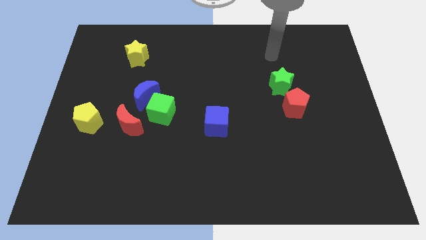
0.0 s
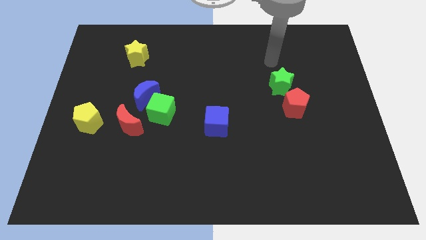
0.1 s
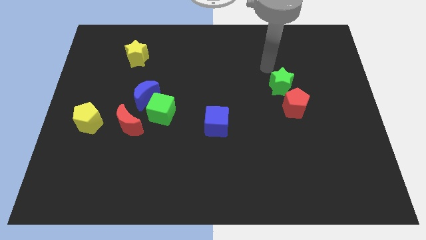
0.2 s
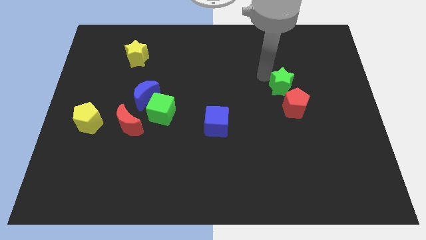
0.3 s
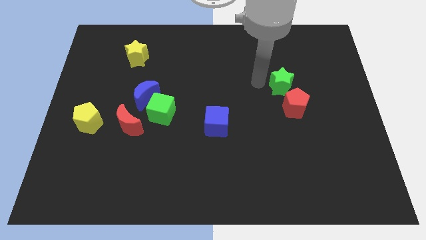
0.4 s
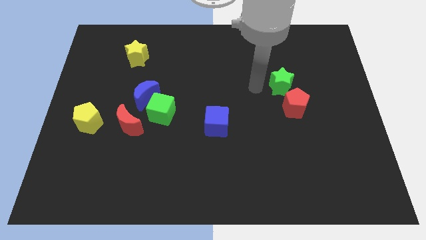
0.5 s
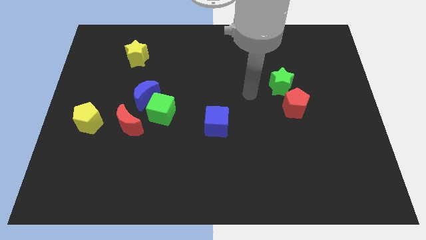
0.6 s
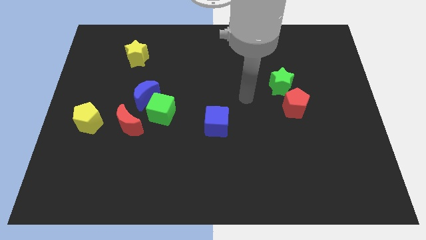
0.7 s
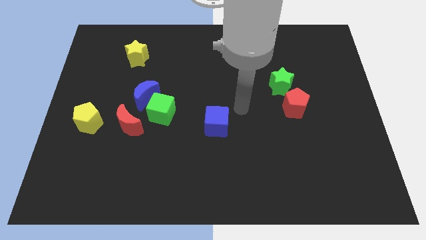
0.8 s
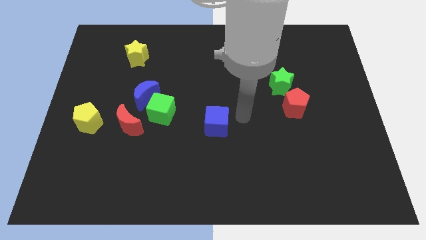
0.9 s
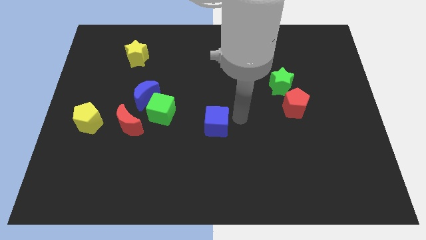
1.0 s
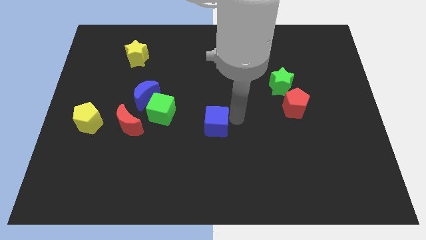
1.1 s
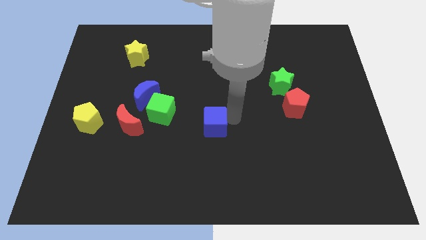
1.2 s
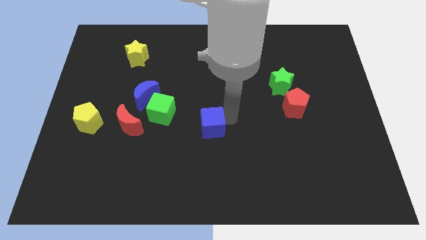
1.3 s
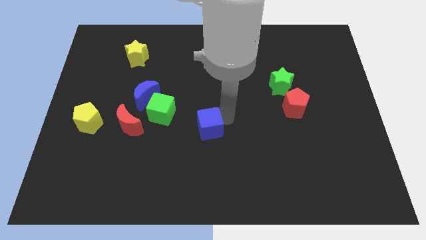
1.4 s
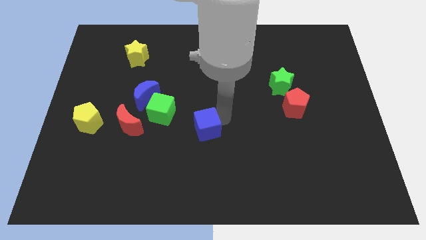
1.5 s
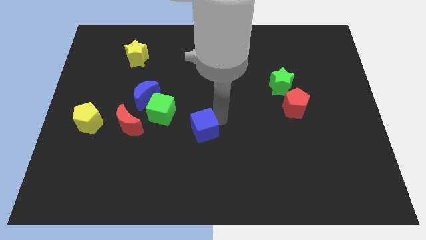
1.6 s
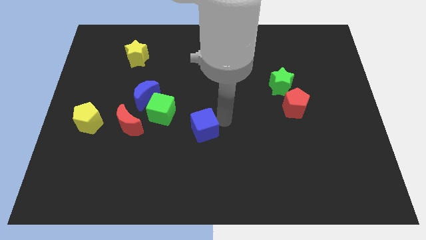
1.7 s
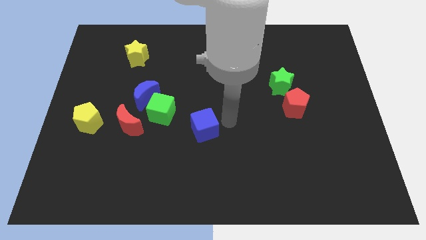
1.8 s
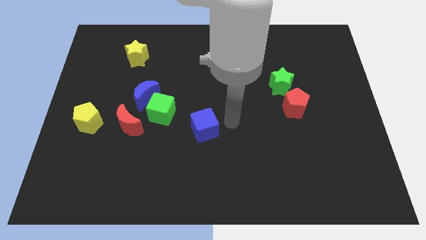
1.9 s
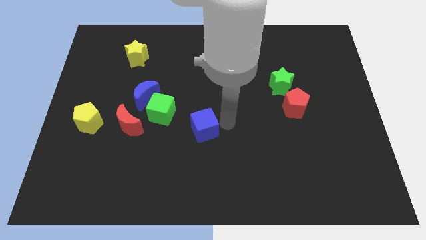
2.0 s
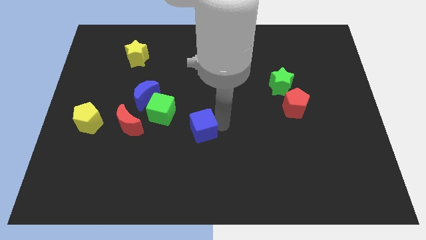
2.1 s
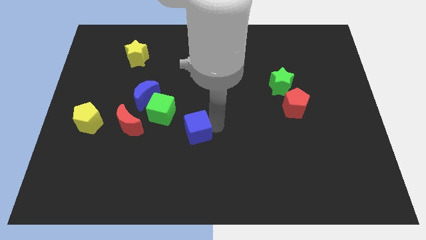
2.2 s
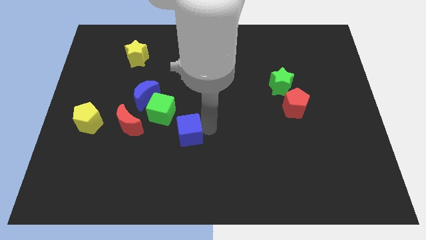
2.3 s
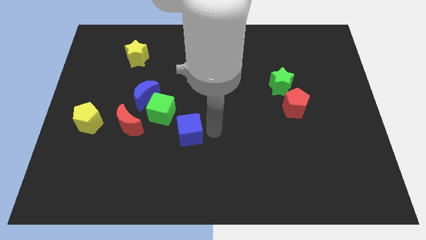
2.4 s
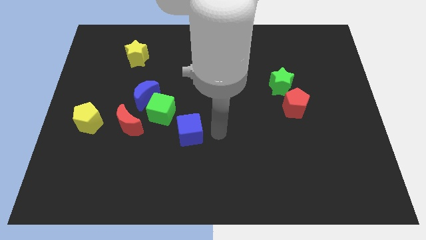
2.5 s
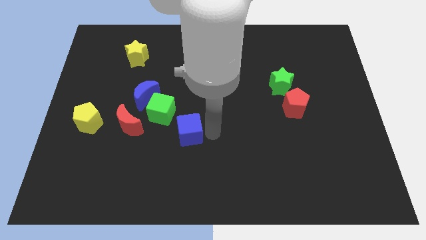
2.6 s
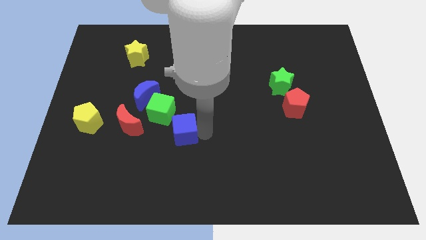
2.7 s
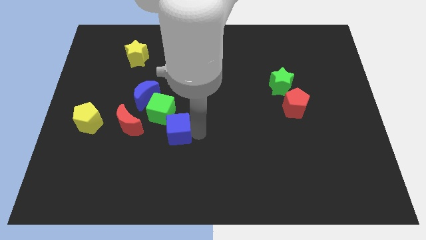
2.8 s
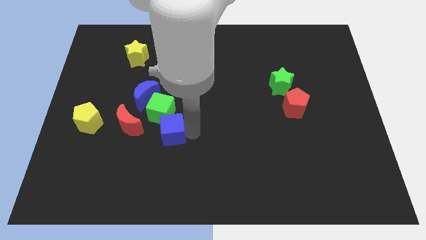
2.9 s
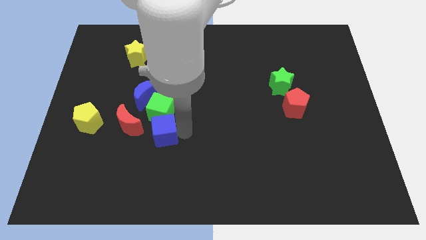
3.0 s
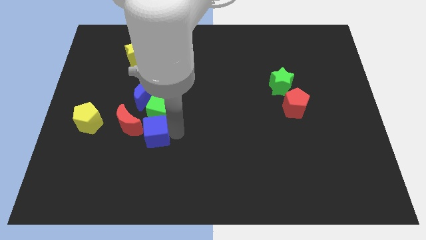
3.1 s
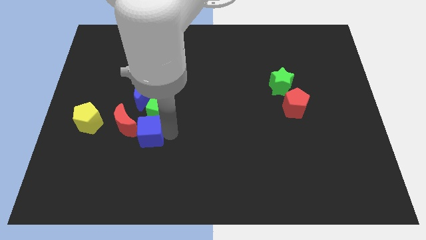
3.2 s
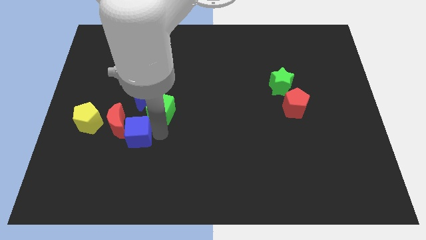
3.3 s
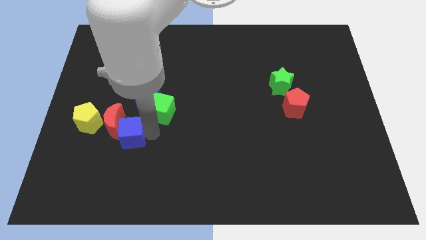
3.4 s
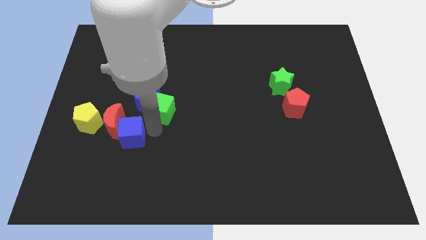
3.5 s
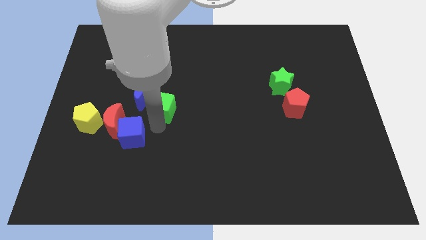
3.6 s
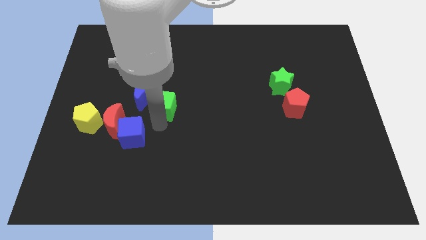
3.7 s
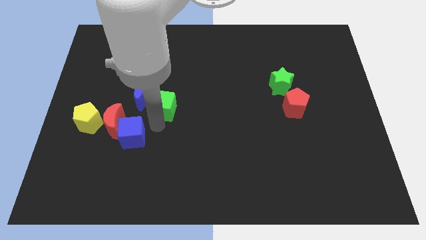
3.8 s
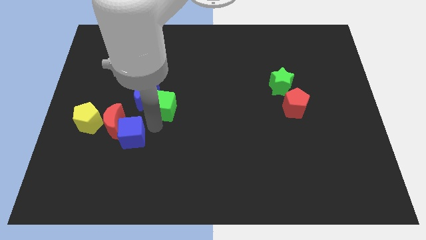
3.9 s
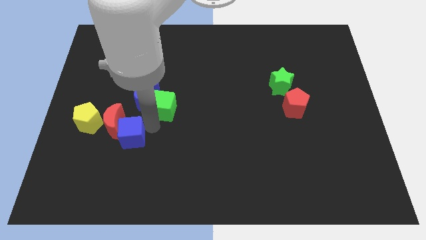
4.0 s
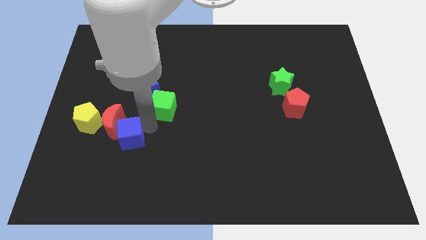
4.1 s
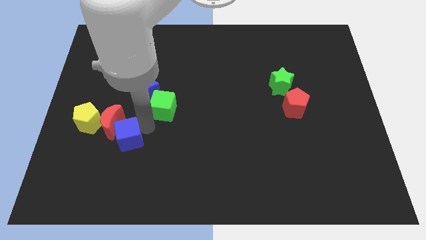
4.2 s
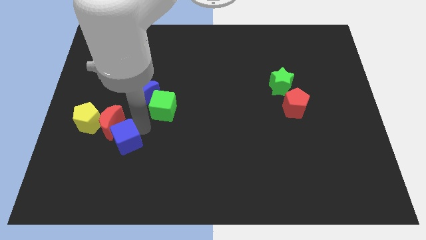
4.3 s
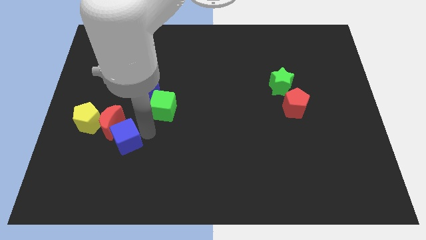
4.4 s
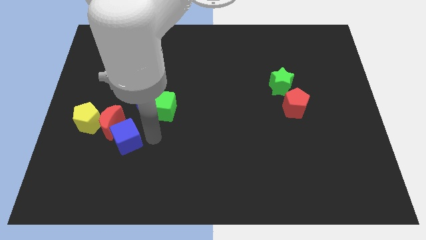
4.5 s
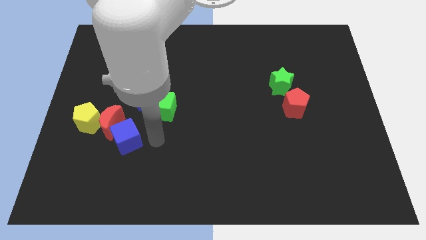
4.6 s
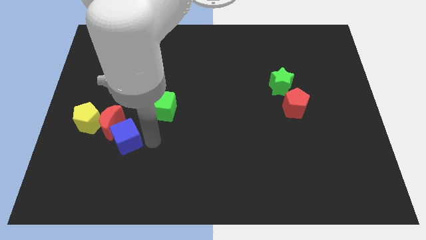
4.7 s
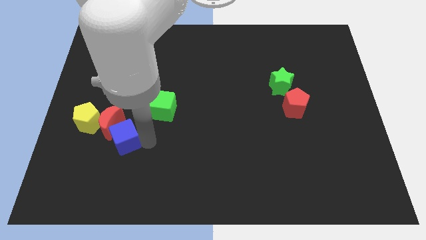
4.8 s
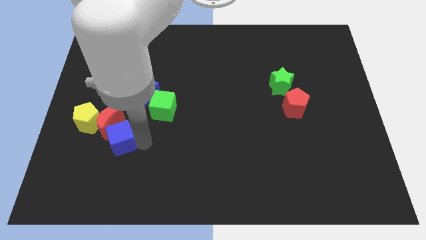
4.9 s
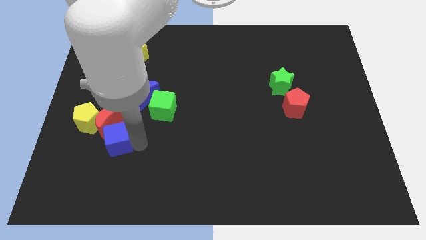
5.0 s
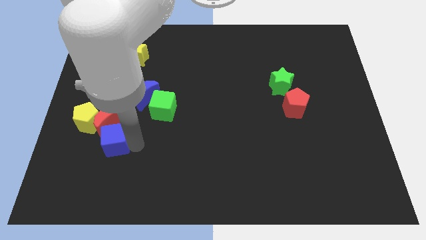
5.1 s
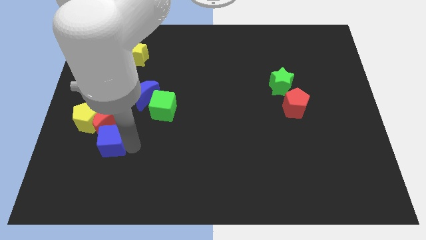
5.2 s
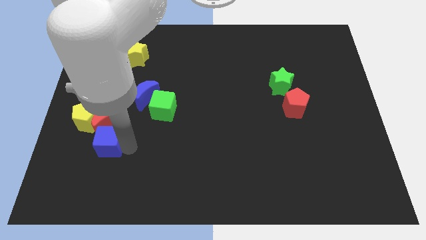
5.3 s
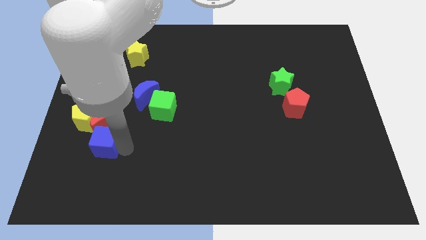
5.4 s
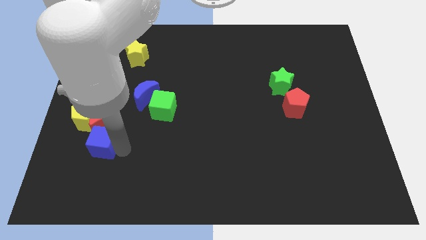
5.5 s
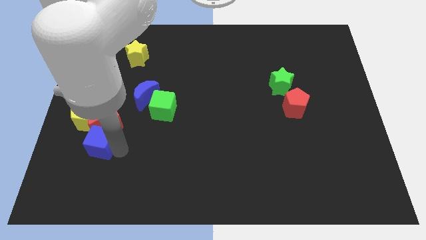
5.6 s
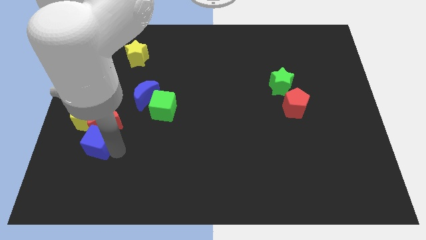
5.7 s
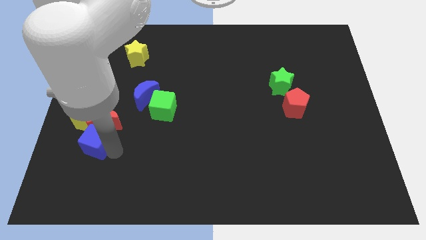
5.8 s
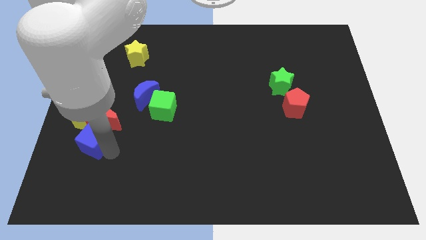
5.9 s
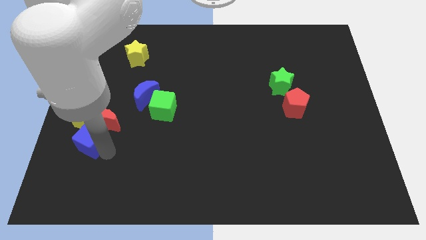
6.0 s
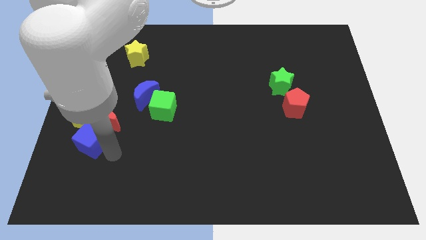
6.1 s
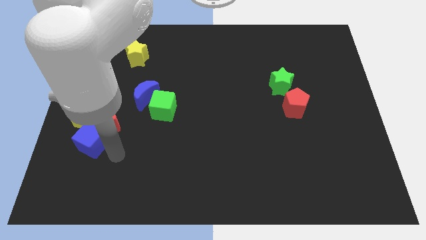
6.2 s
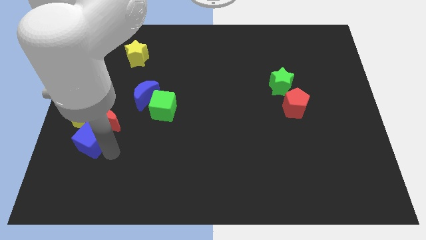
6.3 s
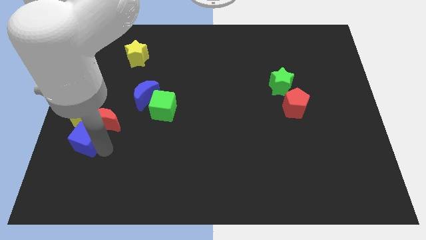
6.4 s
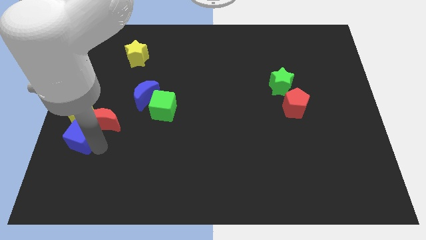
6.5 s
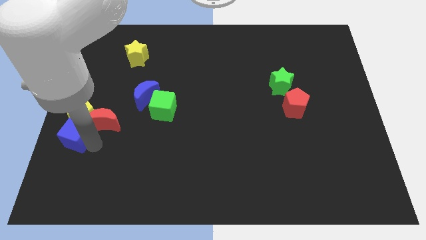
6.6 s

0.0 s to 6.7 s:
push the blue cube to the left side

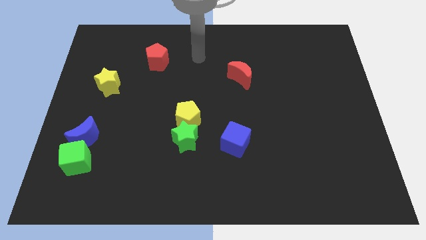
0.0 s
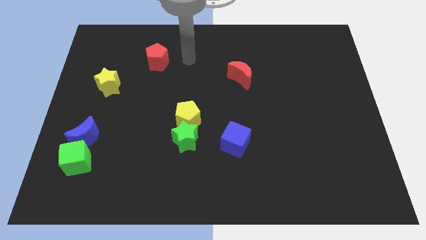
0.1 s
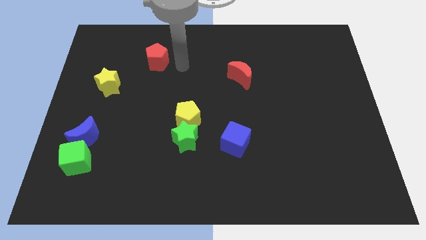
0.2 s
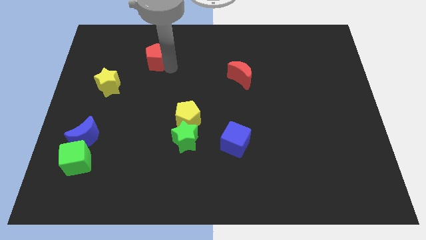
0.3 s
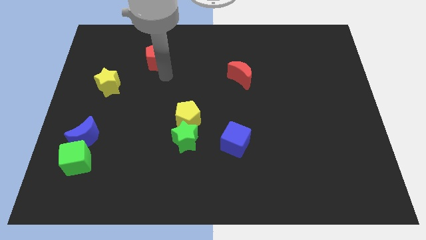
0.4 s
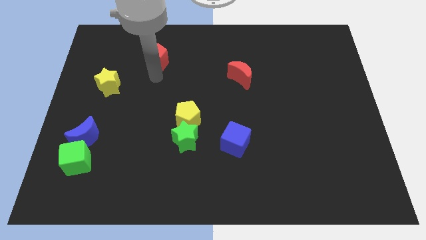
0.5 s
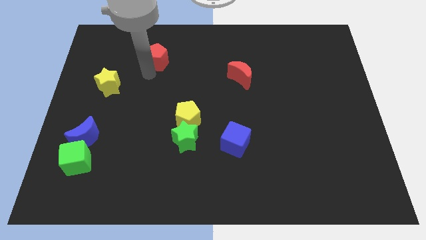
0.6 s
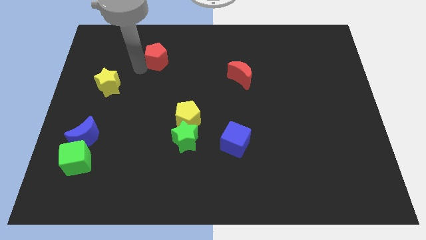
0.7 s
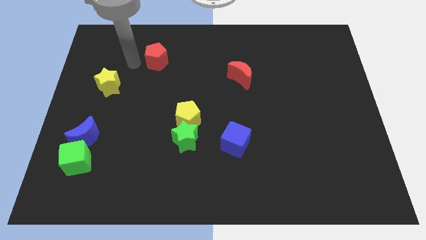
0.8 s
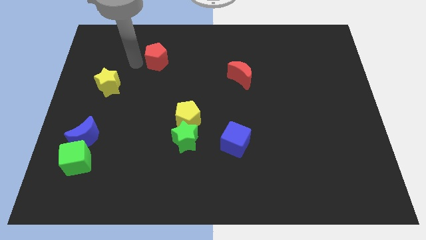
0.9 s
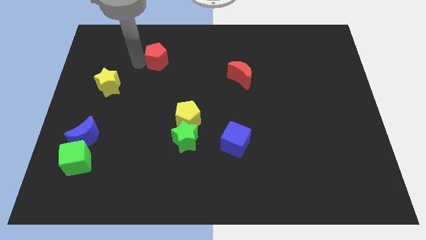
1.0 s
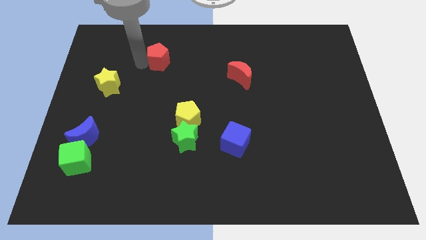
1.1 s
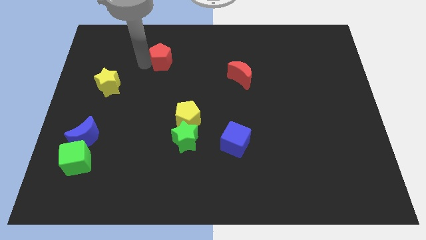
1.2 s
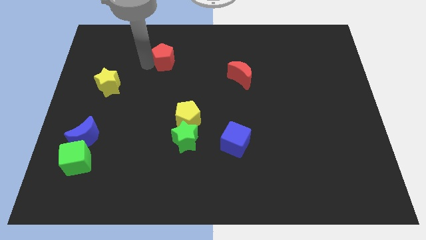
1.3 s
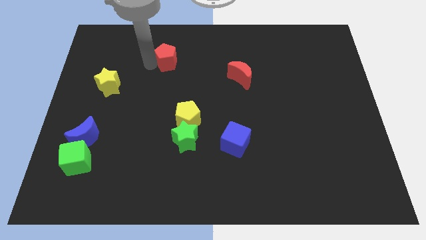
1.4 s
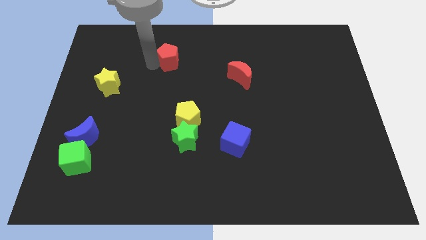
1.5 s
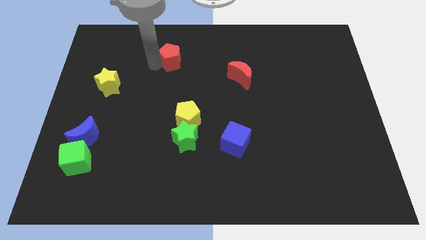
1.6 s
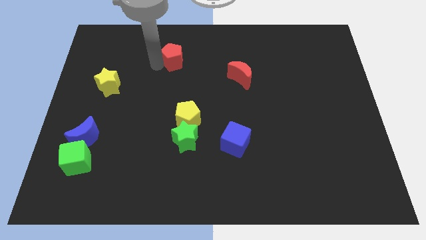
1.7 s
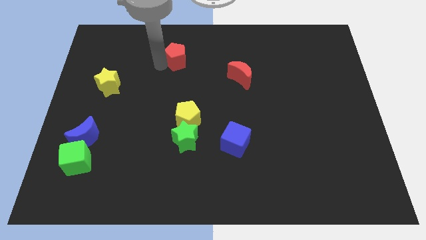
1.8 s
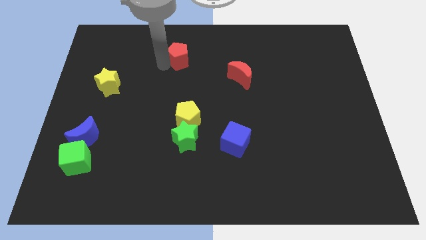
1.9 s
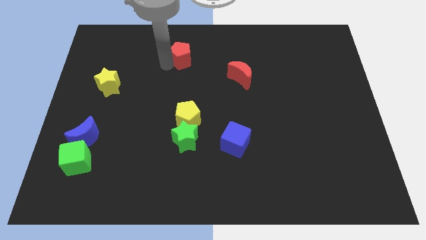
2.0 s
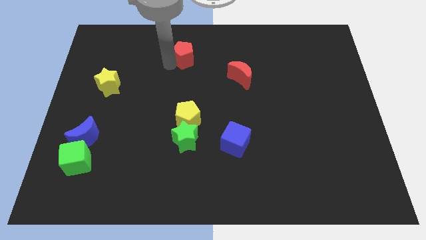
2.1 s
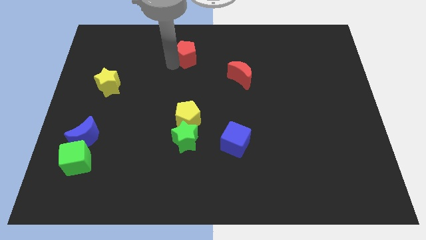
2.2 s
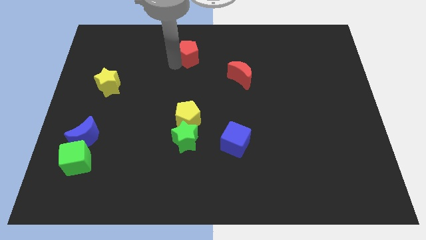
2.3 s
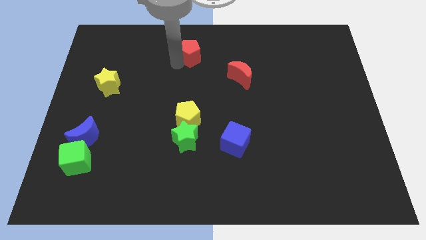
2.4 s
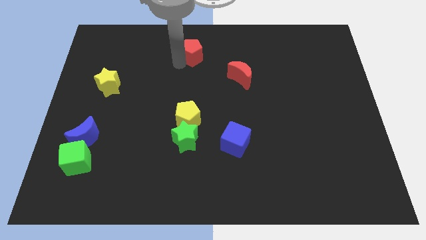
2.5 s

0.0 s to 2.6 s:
put the red pentagon to the towards your base
